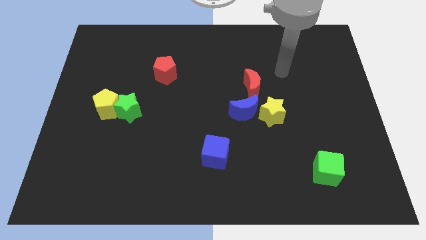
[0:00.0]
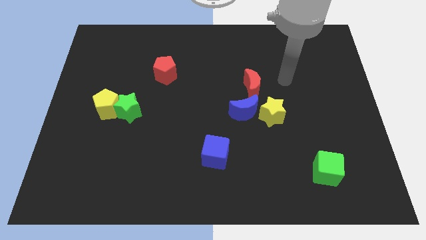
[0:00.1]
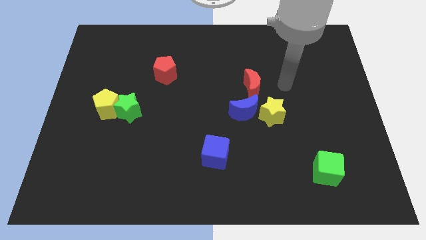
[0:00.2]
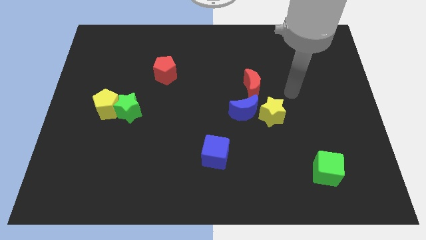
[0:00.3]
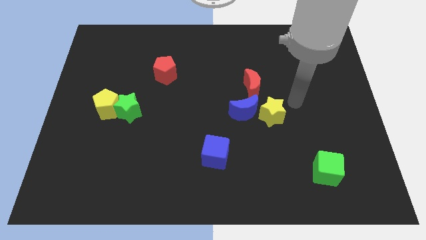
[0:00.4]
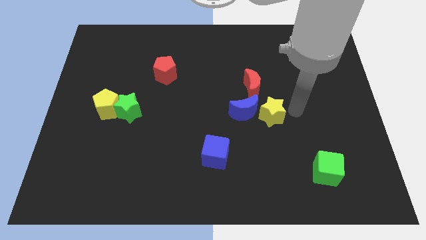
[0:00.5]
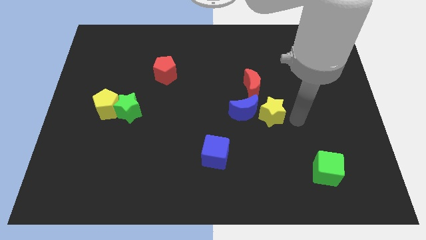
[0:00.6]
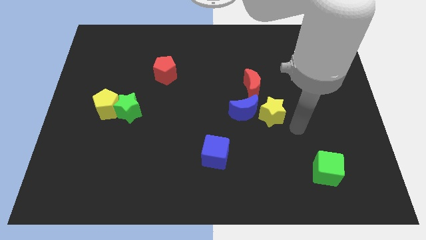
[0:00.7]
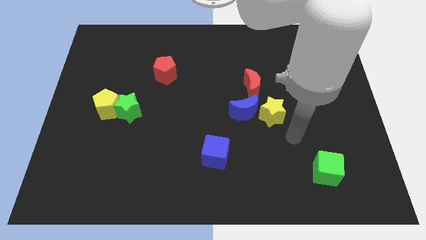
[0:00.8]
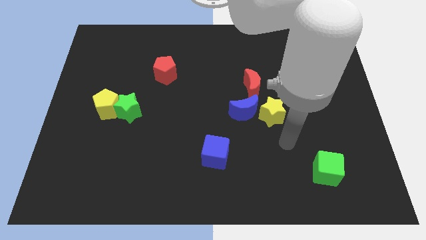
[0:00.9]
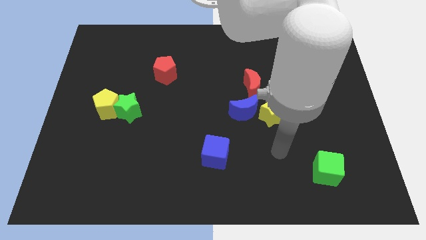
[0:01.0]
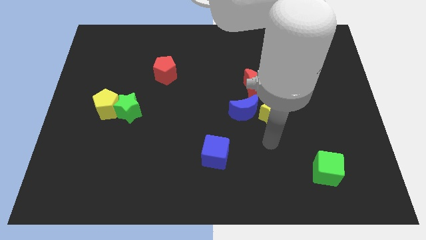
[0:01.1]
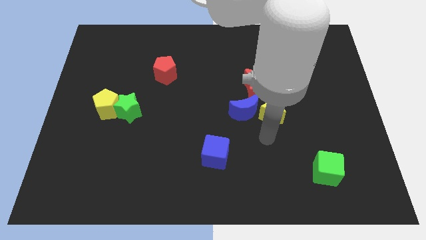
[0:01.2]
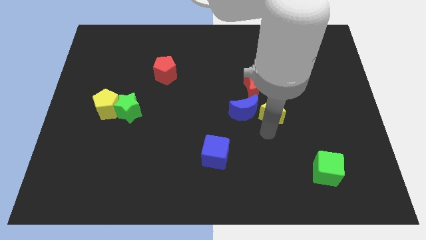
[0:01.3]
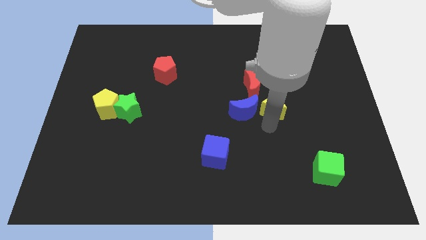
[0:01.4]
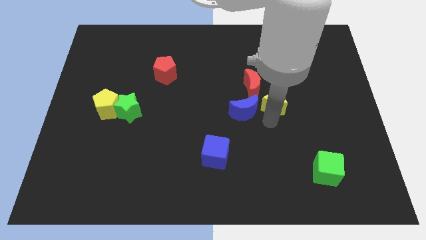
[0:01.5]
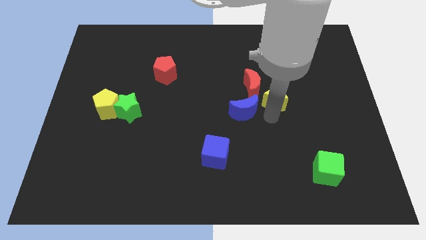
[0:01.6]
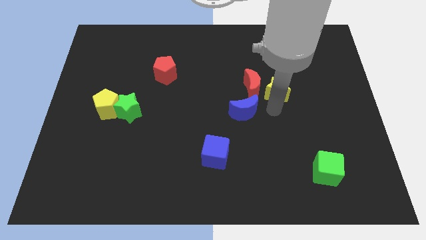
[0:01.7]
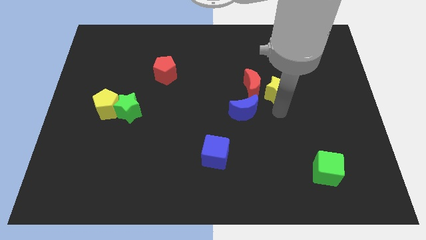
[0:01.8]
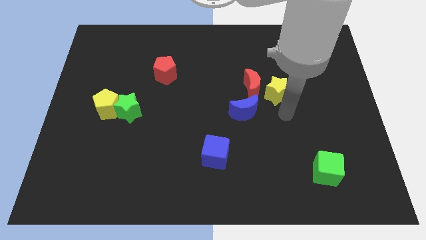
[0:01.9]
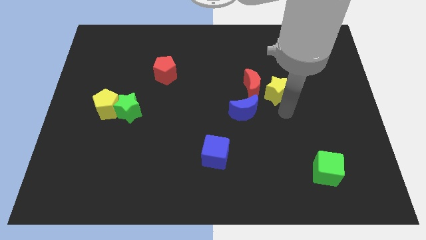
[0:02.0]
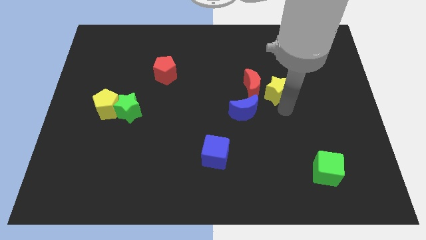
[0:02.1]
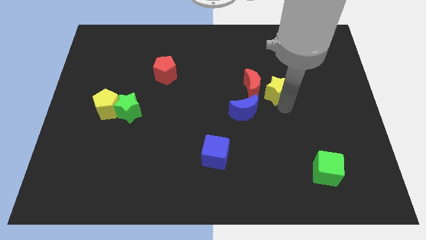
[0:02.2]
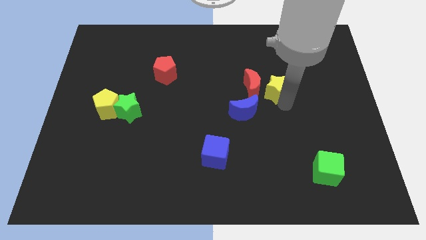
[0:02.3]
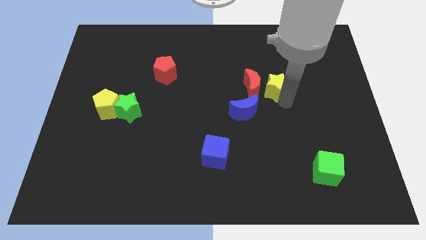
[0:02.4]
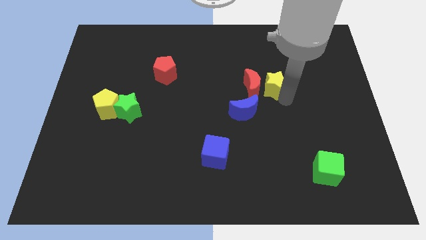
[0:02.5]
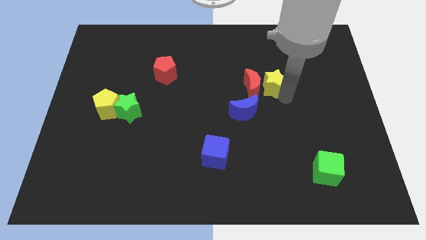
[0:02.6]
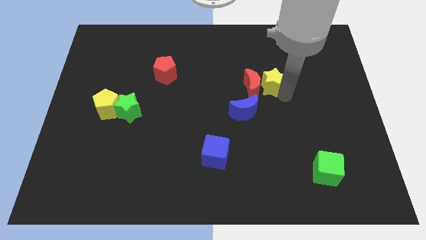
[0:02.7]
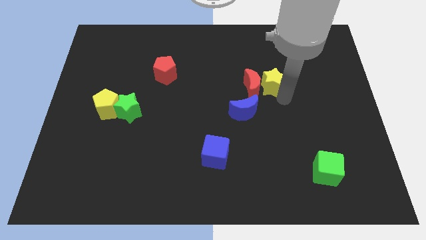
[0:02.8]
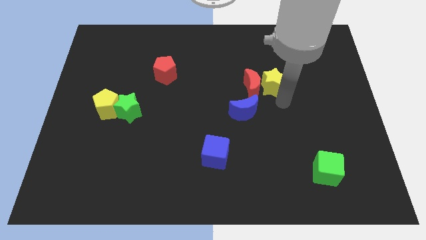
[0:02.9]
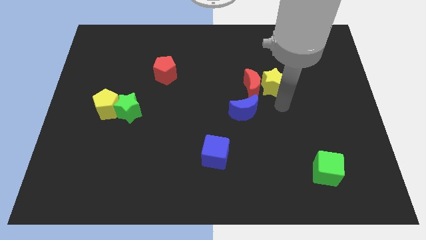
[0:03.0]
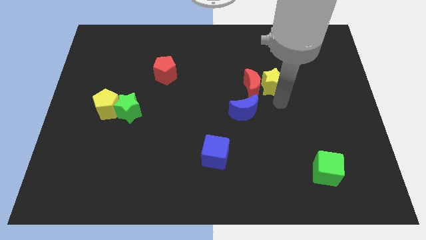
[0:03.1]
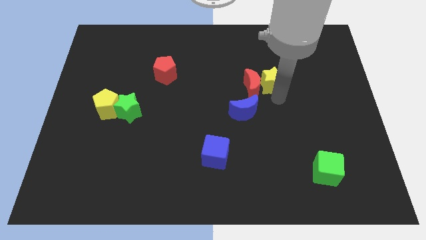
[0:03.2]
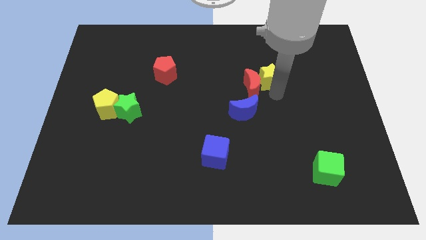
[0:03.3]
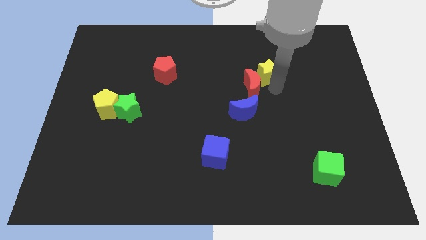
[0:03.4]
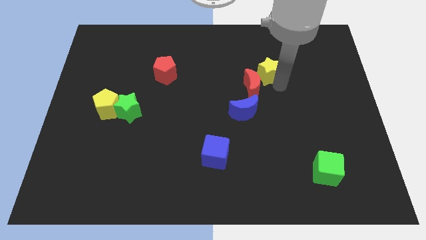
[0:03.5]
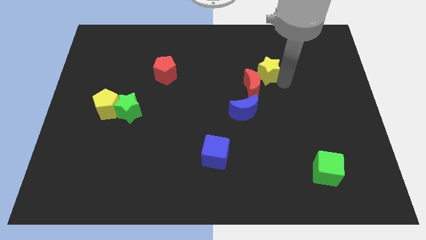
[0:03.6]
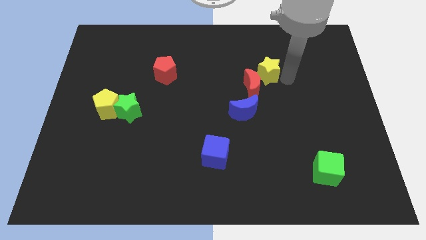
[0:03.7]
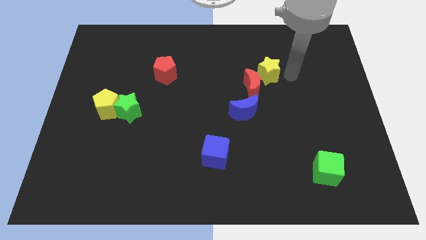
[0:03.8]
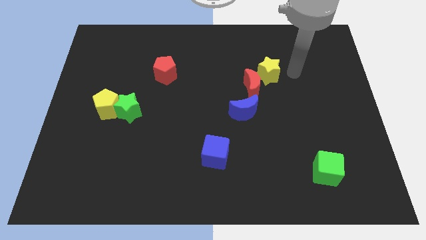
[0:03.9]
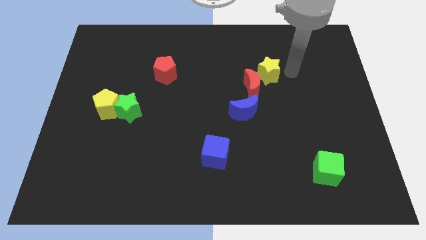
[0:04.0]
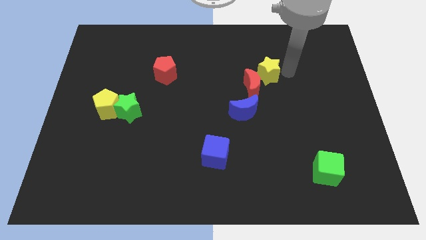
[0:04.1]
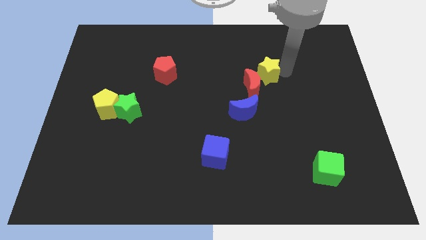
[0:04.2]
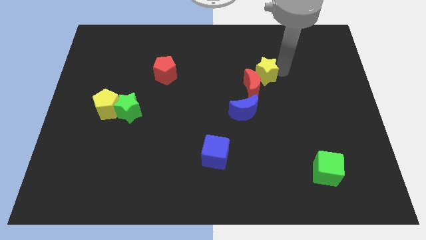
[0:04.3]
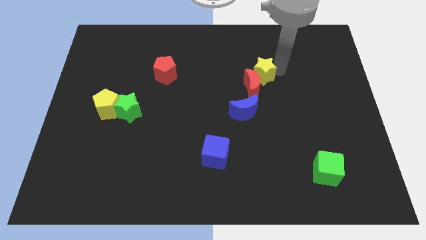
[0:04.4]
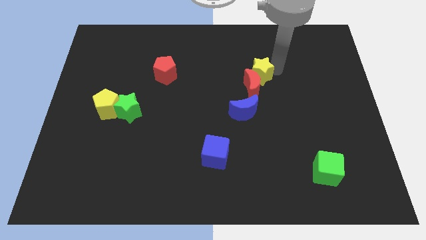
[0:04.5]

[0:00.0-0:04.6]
slide the yellow star up and left diagonally a bit

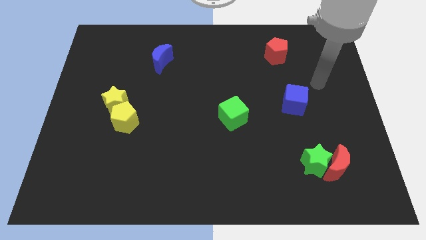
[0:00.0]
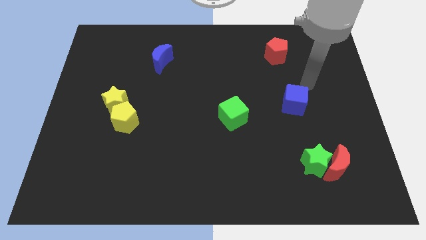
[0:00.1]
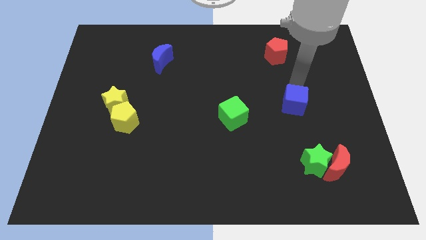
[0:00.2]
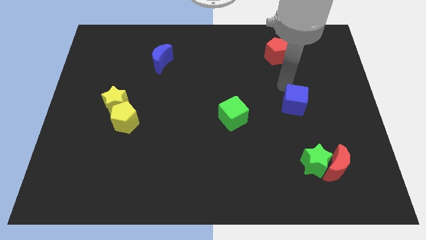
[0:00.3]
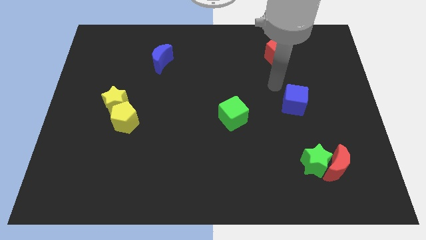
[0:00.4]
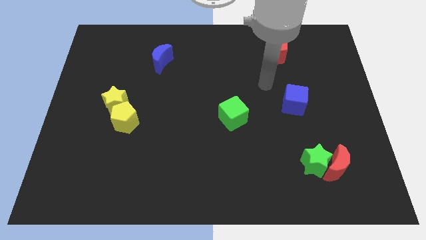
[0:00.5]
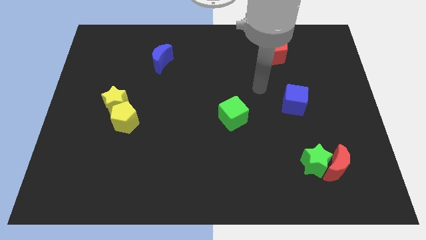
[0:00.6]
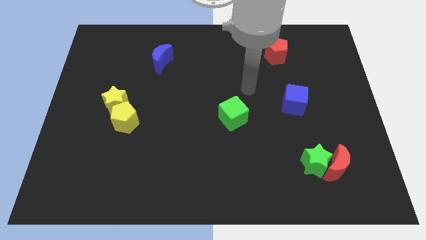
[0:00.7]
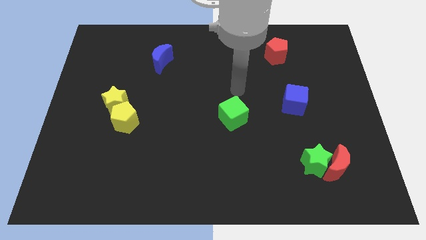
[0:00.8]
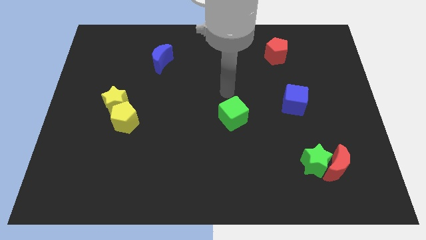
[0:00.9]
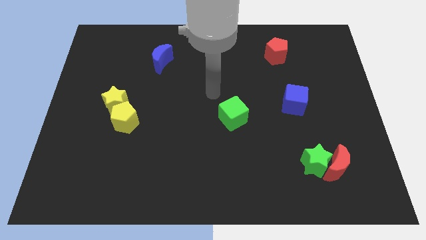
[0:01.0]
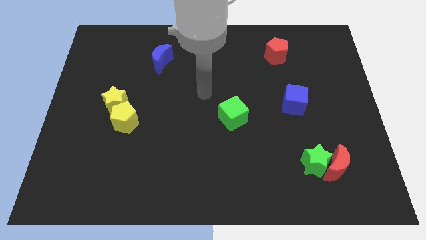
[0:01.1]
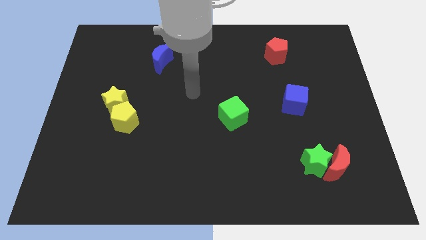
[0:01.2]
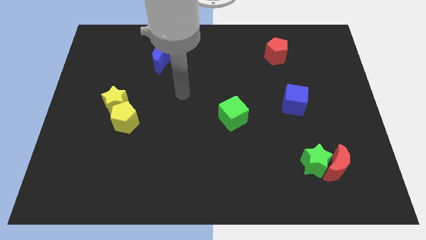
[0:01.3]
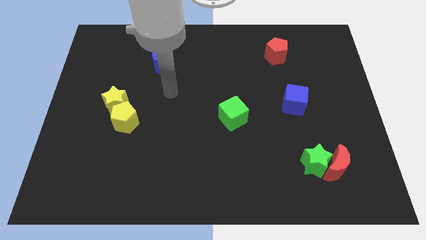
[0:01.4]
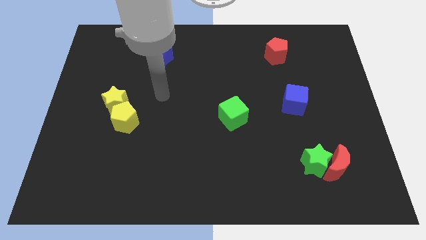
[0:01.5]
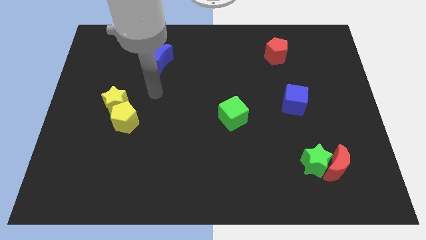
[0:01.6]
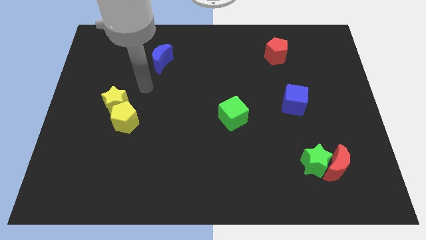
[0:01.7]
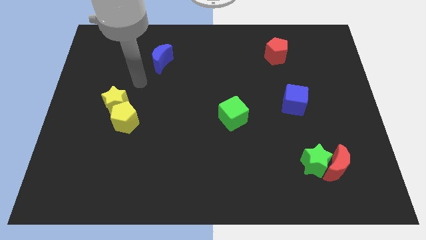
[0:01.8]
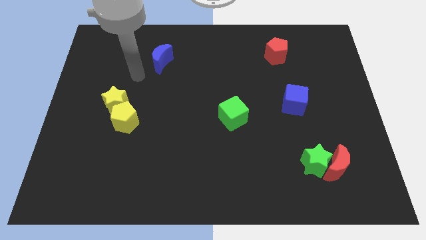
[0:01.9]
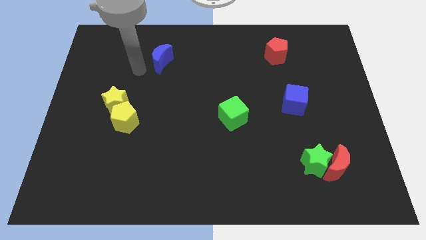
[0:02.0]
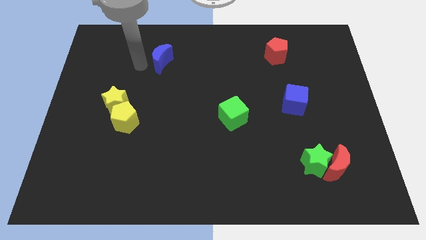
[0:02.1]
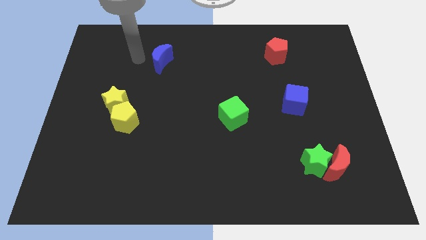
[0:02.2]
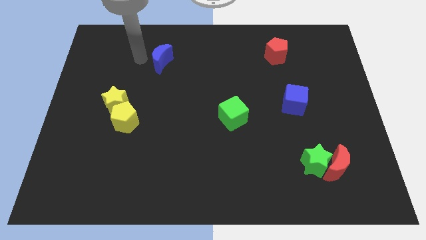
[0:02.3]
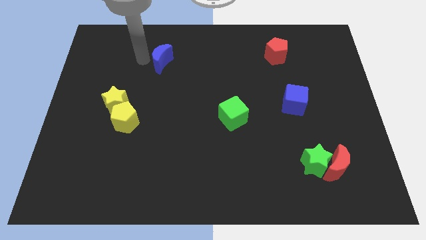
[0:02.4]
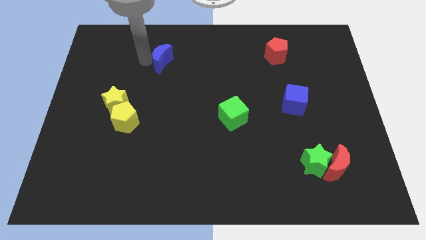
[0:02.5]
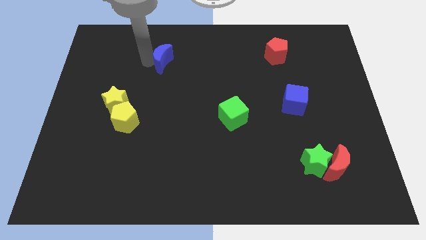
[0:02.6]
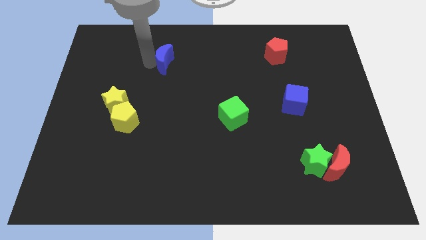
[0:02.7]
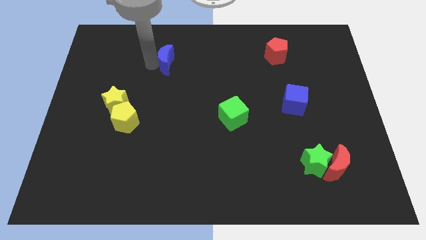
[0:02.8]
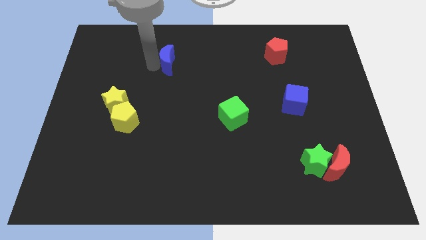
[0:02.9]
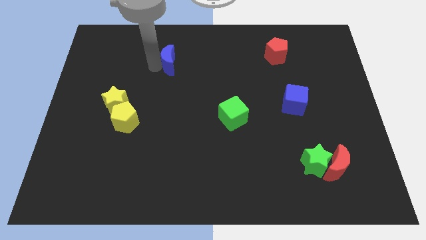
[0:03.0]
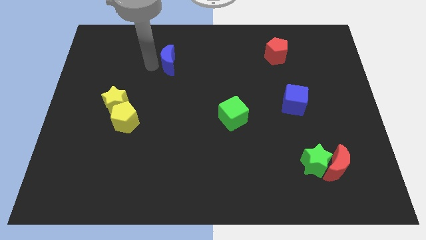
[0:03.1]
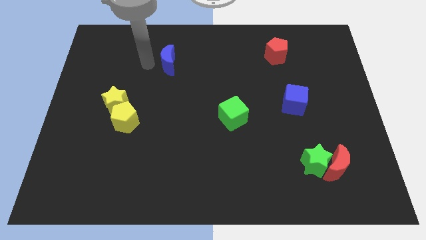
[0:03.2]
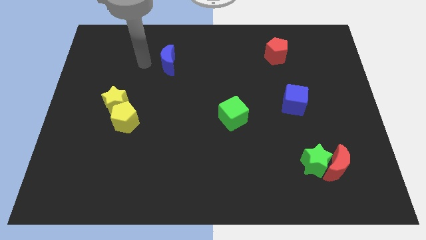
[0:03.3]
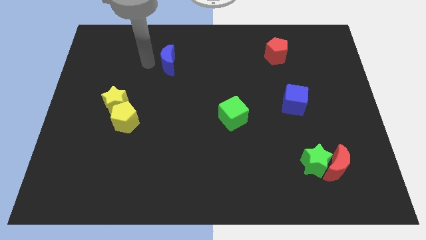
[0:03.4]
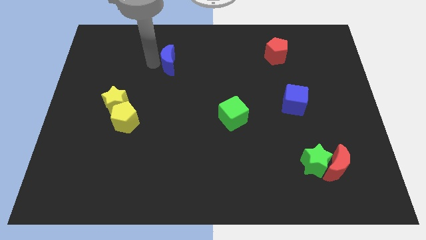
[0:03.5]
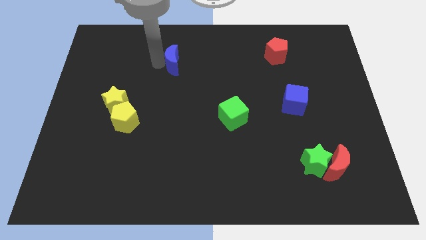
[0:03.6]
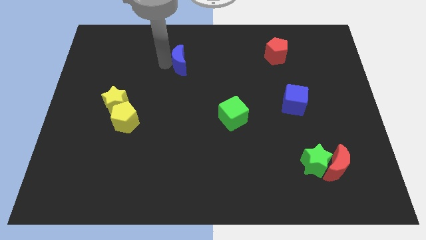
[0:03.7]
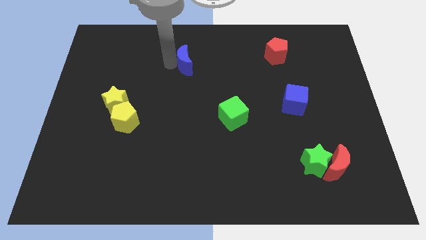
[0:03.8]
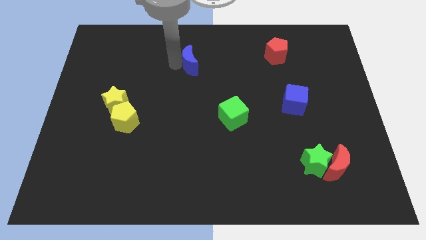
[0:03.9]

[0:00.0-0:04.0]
slide the blue moon a little bit to the right
